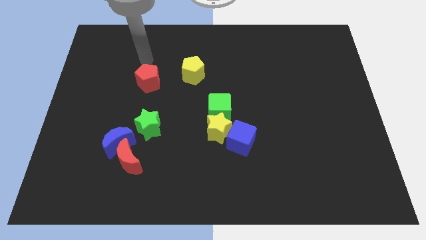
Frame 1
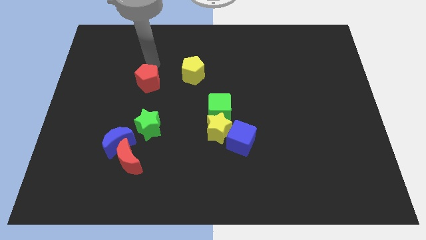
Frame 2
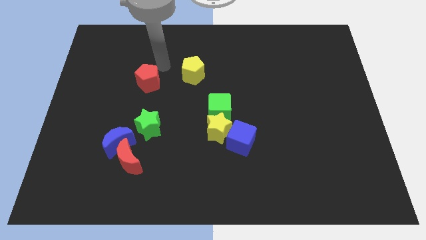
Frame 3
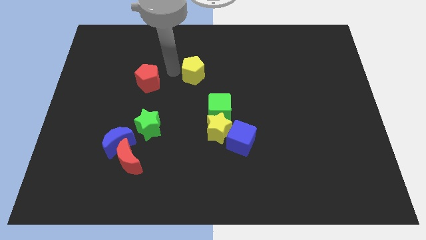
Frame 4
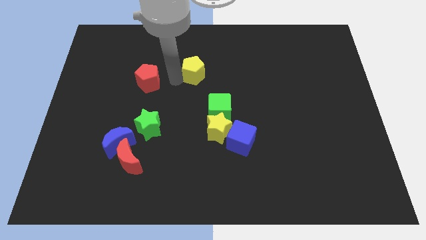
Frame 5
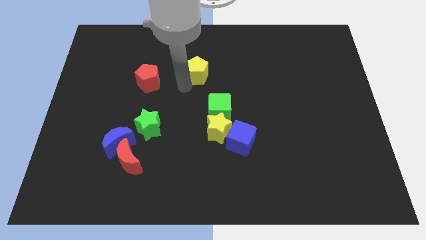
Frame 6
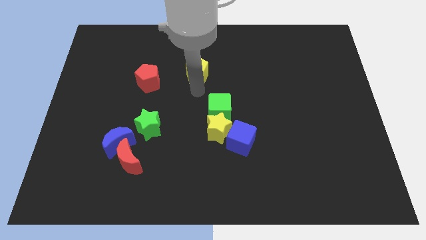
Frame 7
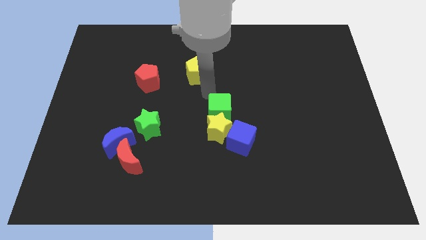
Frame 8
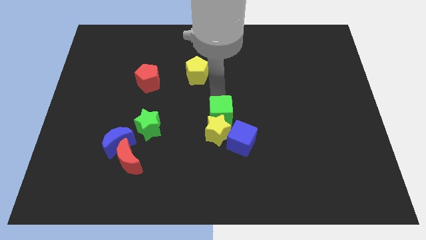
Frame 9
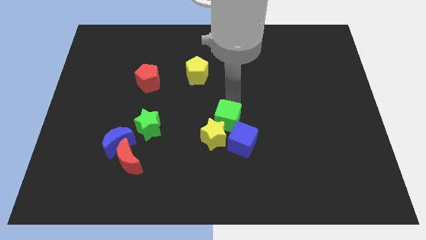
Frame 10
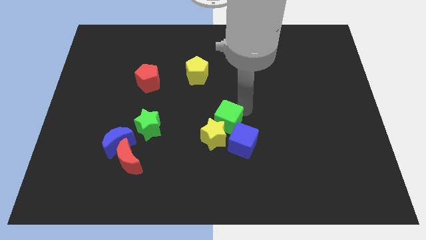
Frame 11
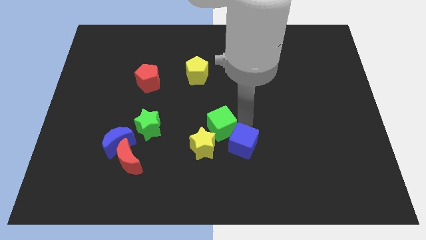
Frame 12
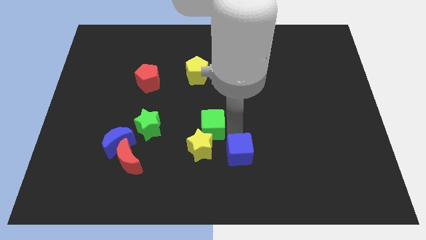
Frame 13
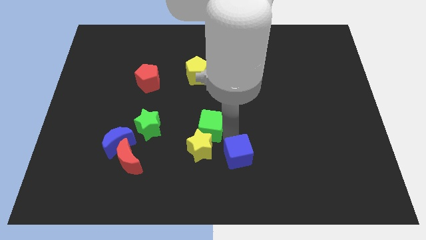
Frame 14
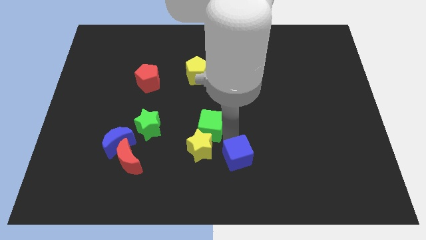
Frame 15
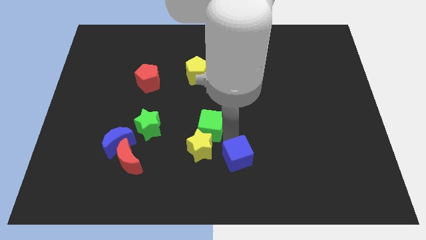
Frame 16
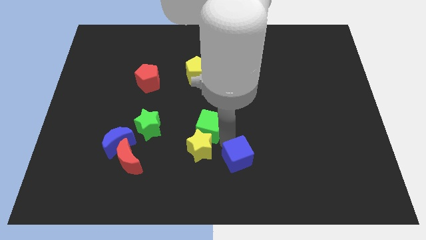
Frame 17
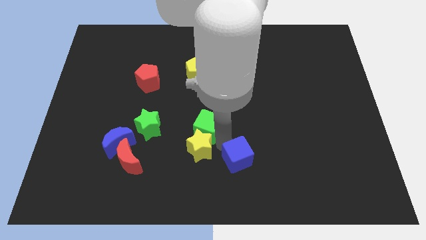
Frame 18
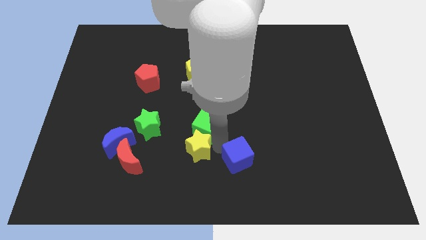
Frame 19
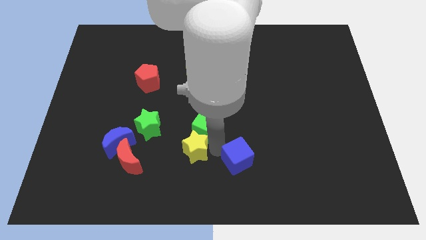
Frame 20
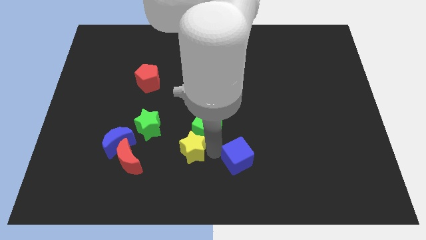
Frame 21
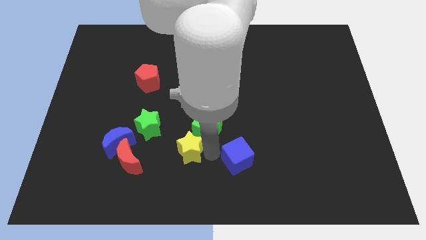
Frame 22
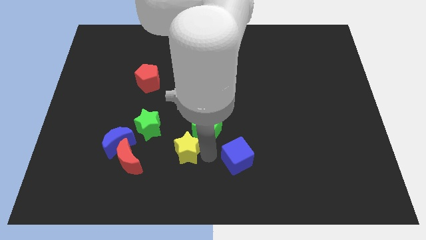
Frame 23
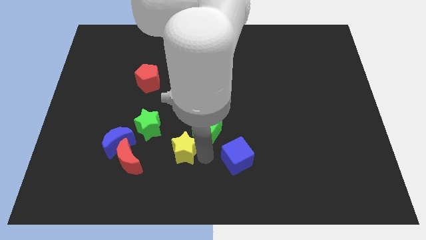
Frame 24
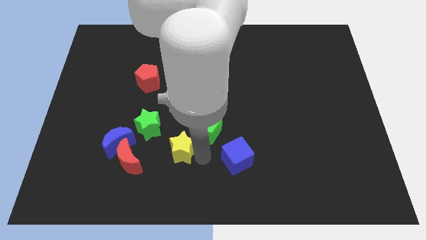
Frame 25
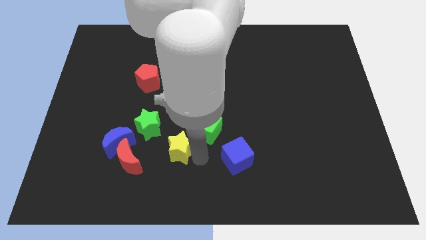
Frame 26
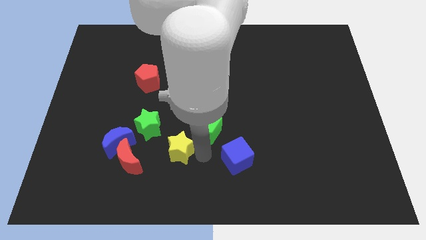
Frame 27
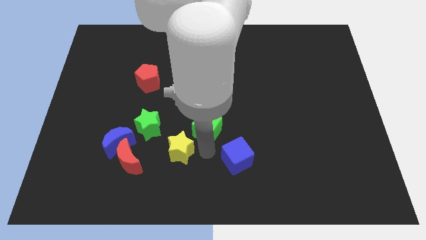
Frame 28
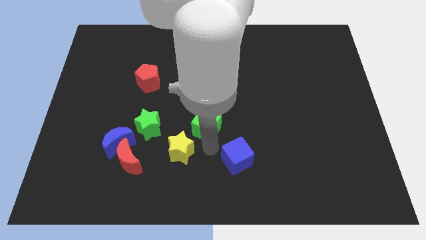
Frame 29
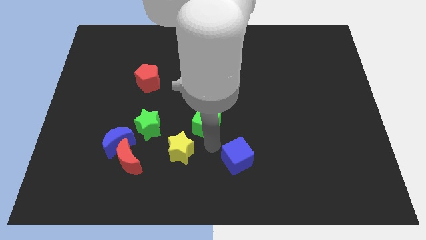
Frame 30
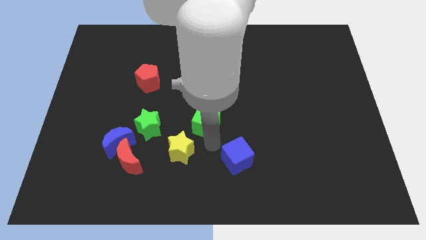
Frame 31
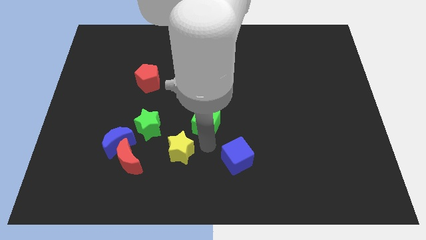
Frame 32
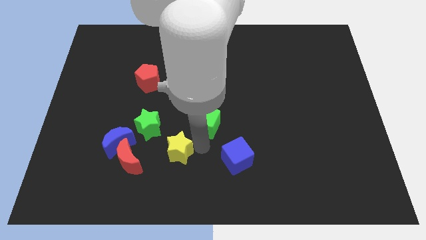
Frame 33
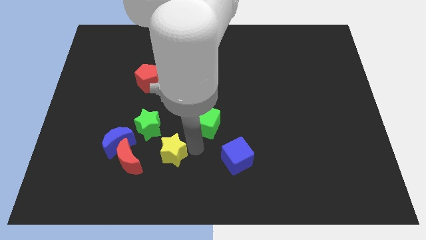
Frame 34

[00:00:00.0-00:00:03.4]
pull the yellow star apart from the green cube and blue cube

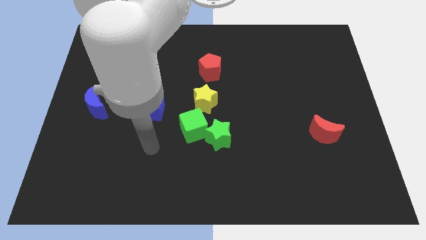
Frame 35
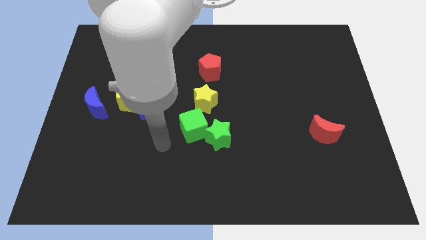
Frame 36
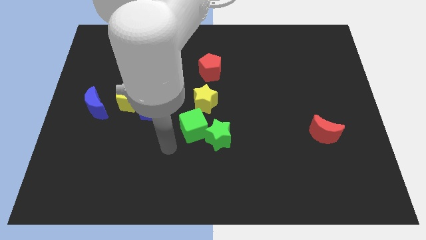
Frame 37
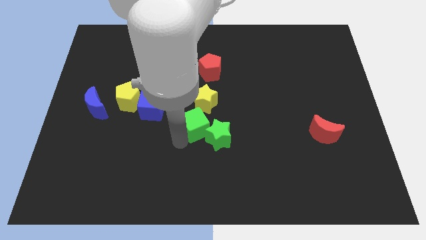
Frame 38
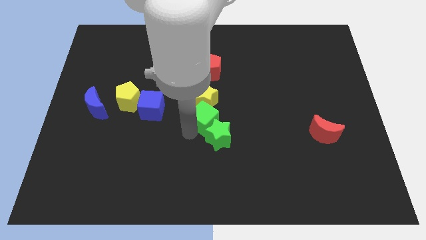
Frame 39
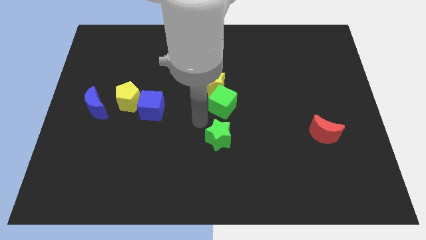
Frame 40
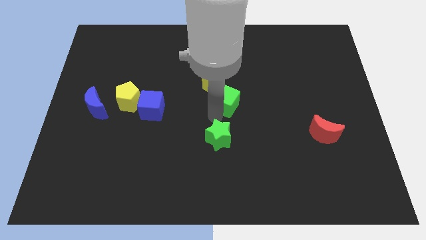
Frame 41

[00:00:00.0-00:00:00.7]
move the green star away from the green cube

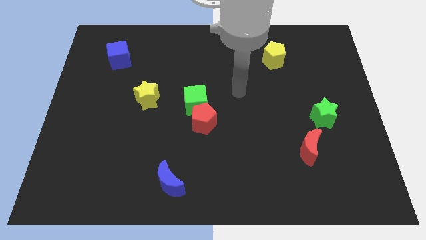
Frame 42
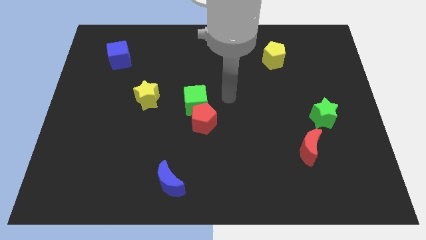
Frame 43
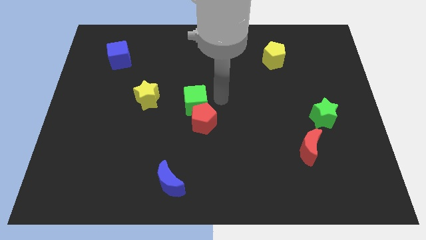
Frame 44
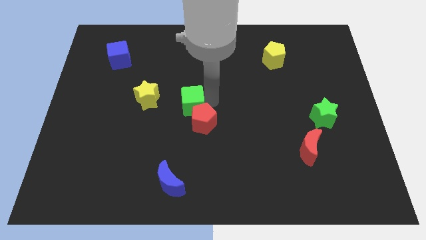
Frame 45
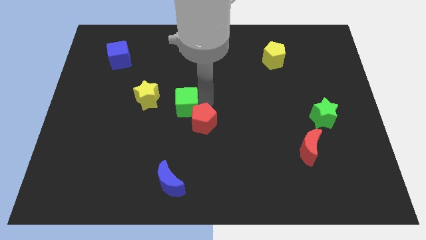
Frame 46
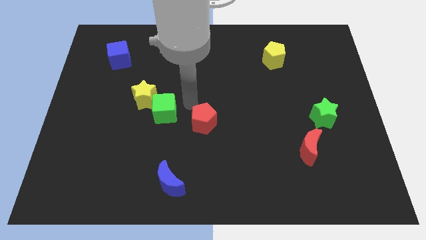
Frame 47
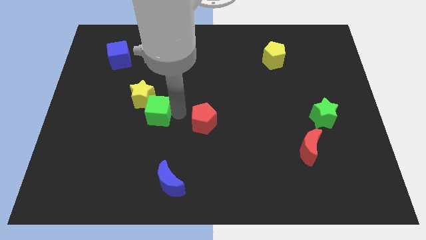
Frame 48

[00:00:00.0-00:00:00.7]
pull the red pentagon apart from the green cube

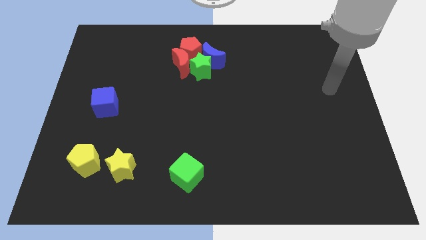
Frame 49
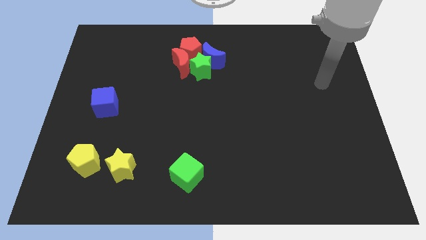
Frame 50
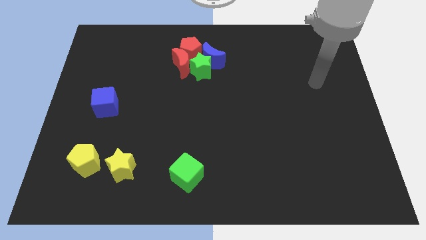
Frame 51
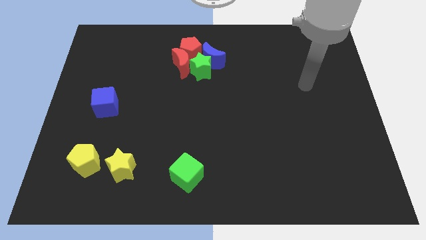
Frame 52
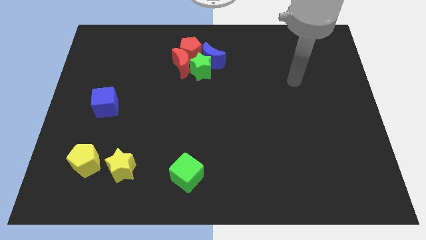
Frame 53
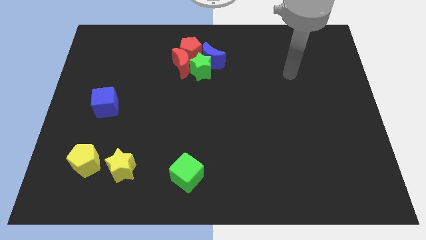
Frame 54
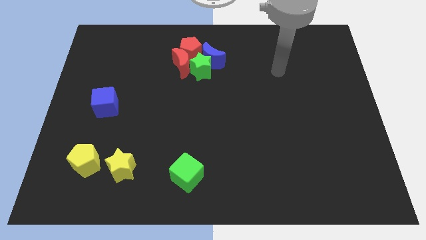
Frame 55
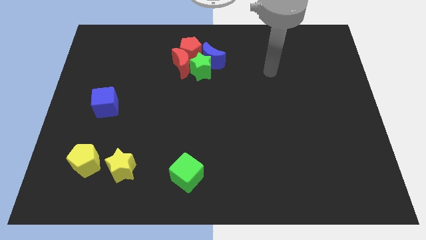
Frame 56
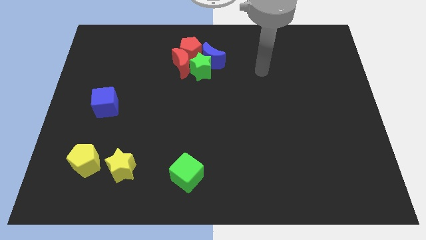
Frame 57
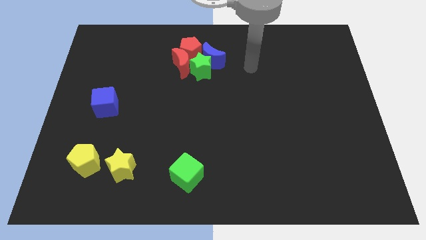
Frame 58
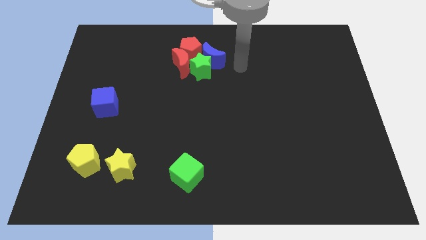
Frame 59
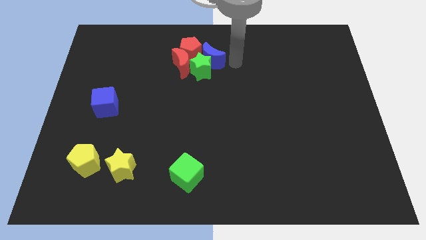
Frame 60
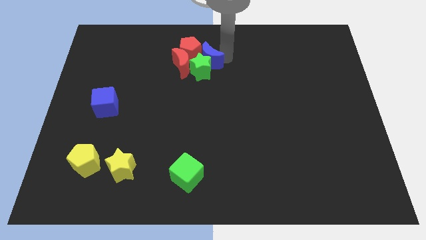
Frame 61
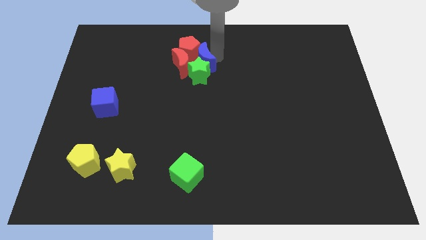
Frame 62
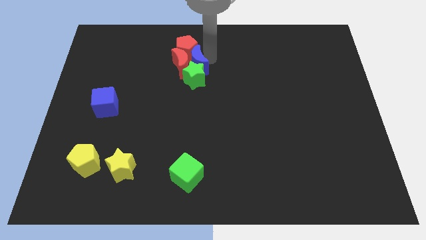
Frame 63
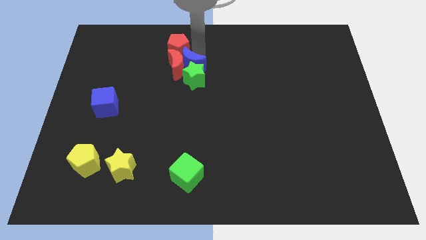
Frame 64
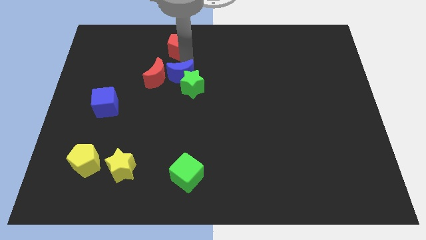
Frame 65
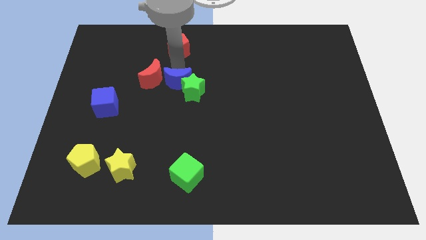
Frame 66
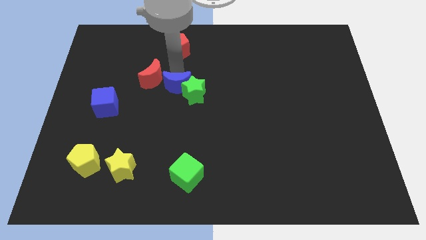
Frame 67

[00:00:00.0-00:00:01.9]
separate the green star from the group of blocks

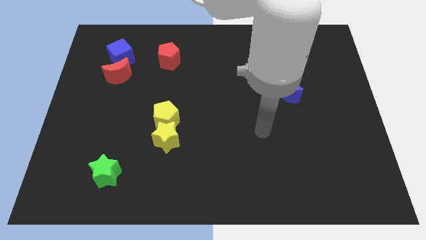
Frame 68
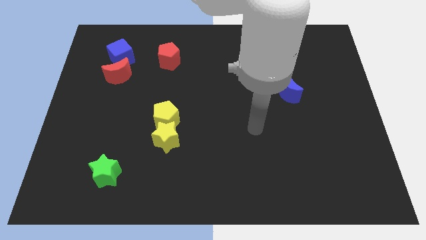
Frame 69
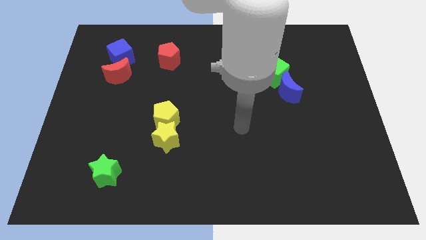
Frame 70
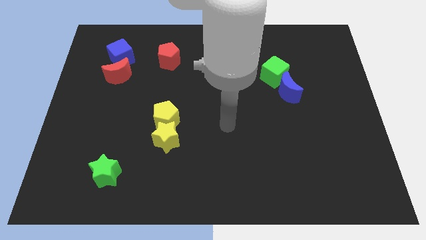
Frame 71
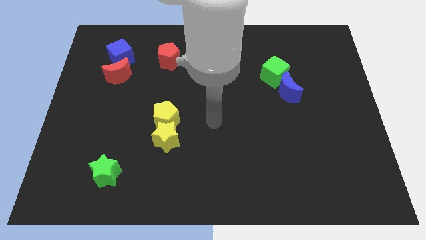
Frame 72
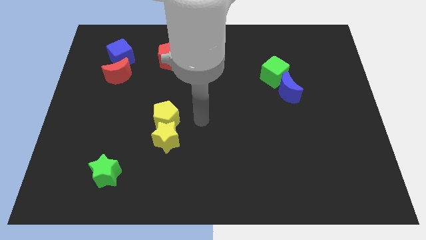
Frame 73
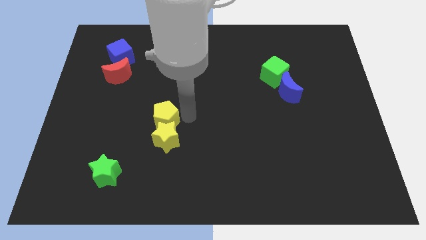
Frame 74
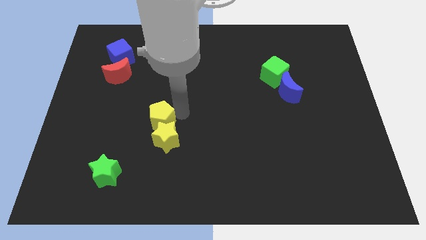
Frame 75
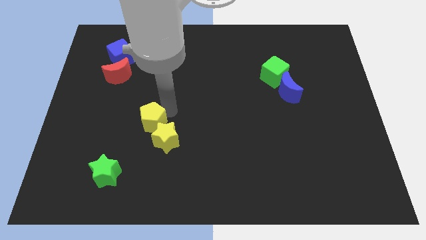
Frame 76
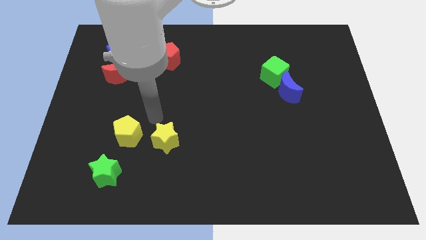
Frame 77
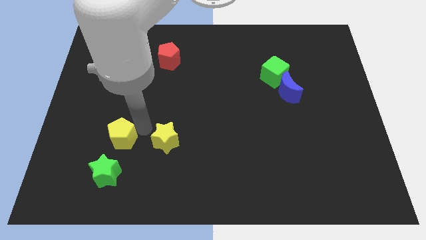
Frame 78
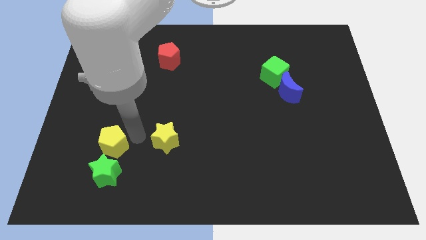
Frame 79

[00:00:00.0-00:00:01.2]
move the yellow star away from the yellow pentagon

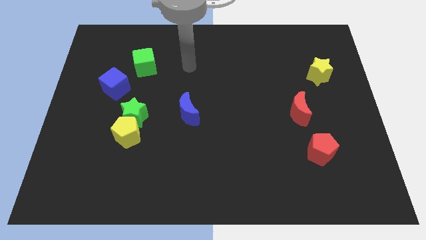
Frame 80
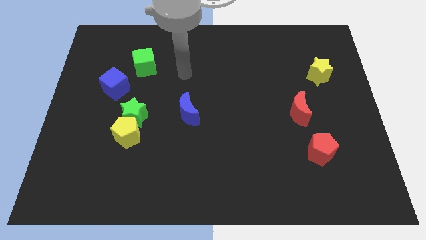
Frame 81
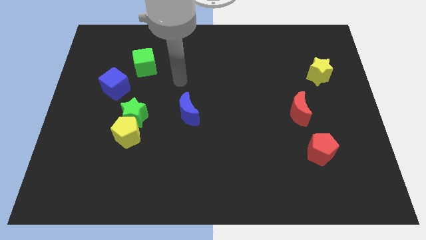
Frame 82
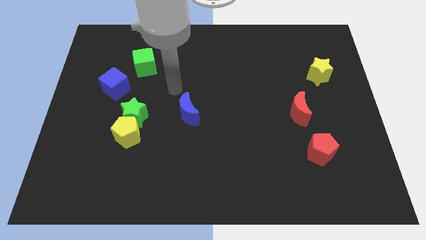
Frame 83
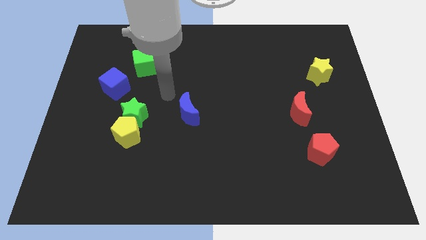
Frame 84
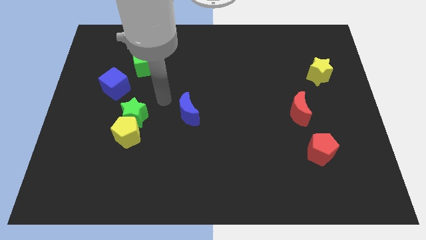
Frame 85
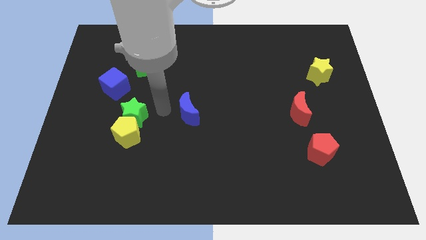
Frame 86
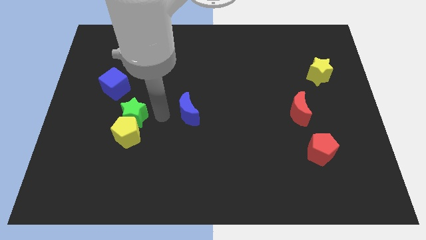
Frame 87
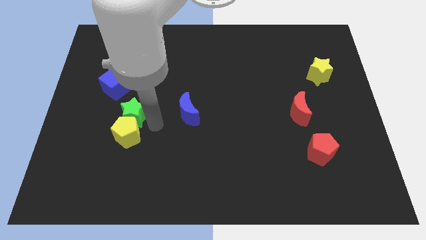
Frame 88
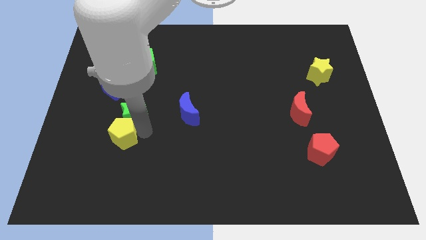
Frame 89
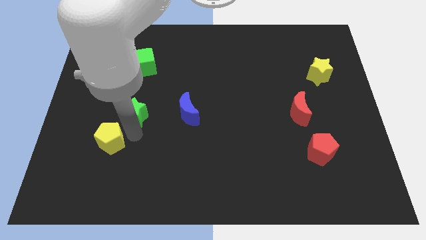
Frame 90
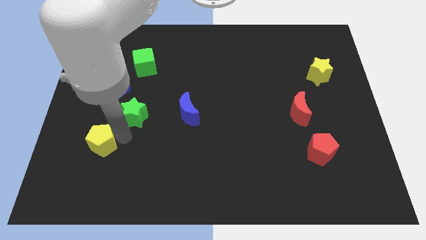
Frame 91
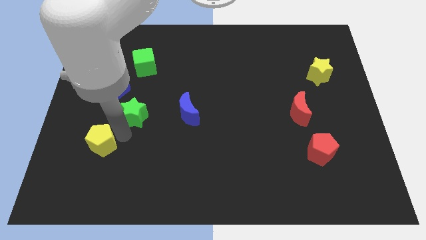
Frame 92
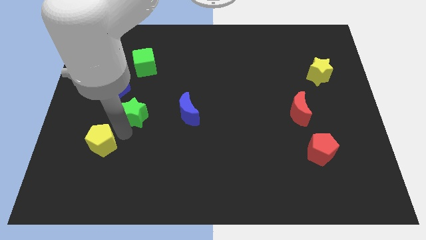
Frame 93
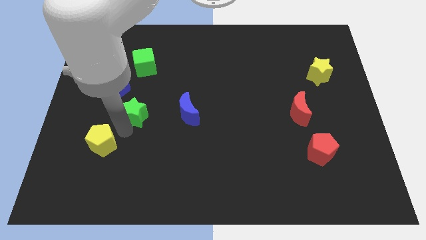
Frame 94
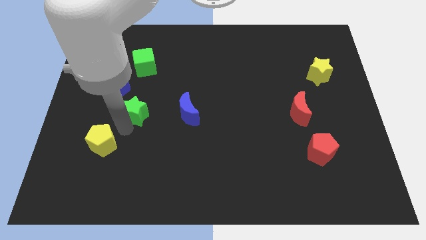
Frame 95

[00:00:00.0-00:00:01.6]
move the green star away from the yellow pentagon
